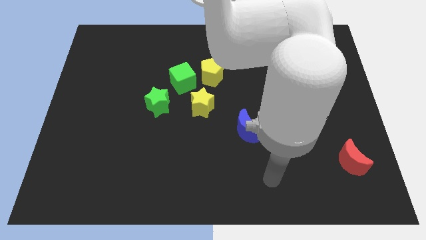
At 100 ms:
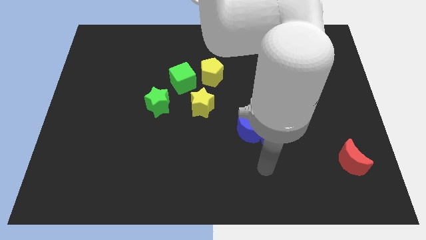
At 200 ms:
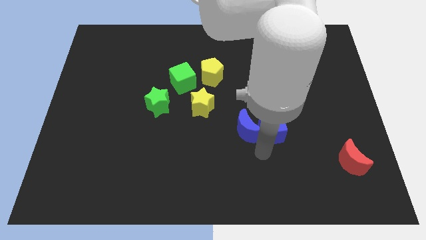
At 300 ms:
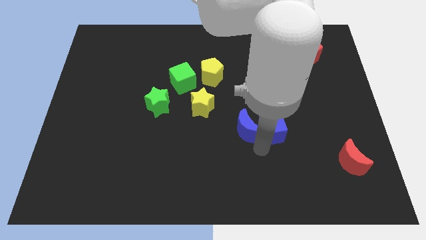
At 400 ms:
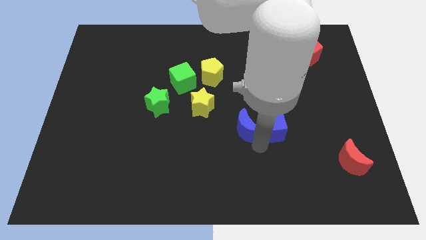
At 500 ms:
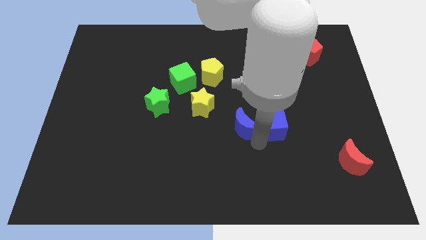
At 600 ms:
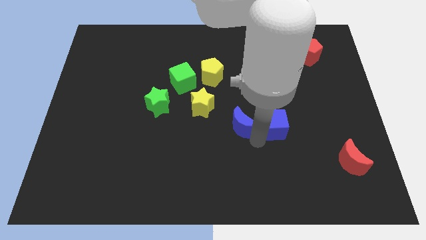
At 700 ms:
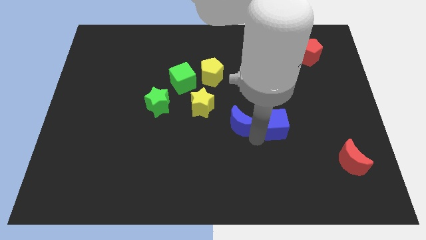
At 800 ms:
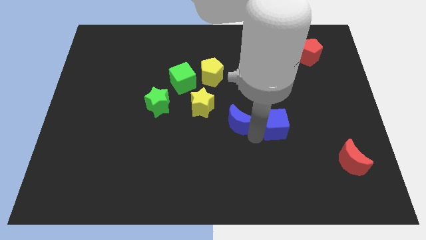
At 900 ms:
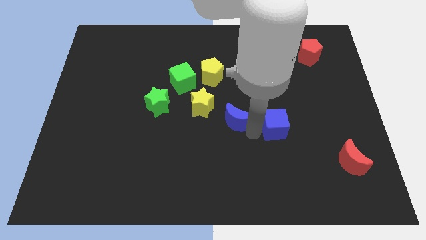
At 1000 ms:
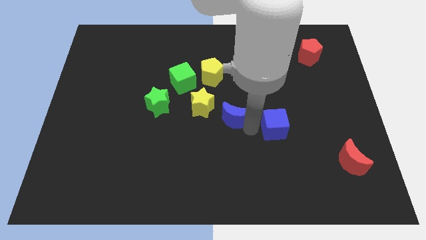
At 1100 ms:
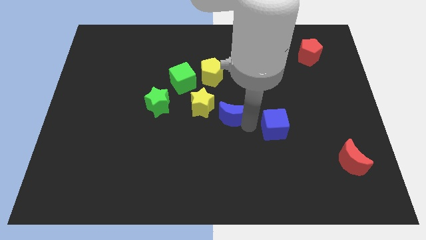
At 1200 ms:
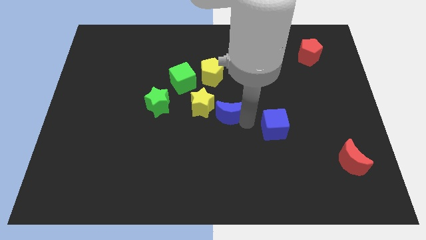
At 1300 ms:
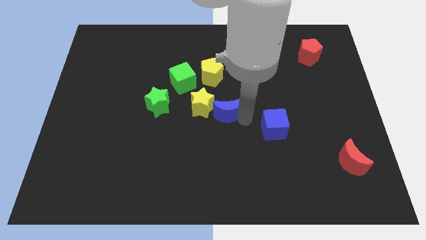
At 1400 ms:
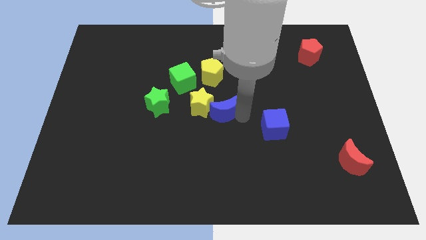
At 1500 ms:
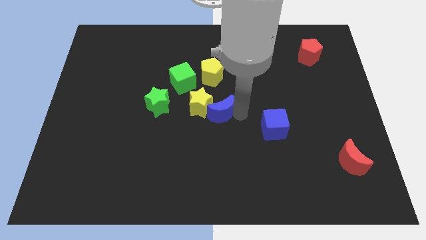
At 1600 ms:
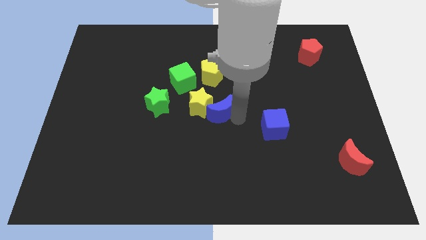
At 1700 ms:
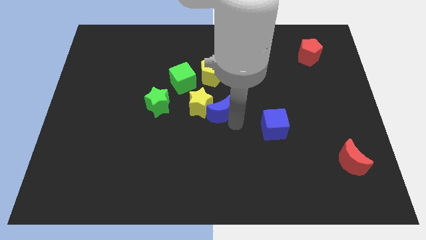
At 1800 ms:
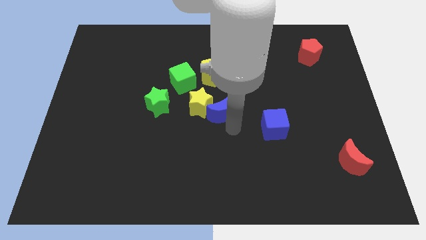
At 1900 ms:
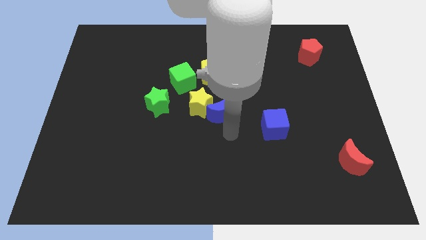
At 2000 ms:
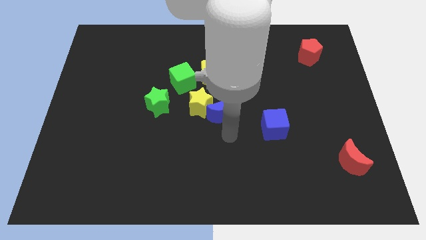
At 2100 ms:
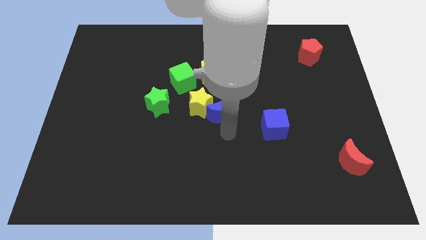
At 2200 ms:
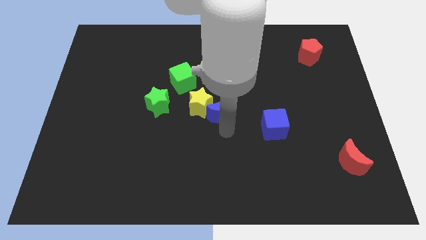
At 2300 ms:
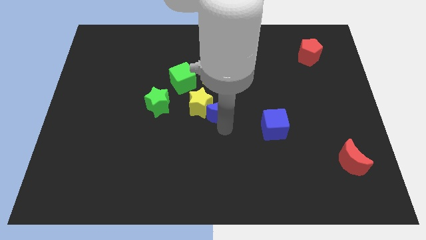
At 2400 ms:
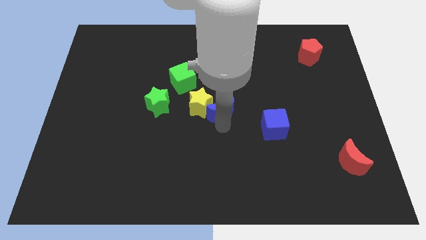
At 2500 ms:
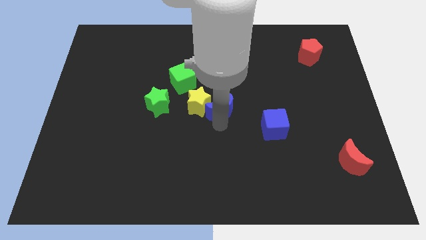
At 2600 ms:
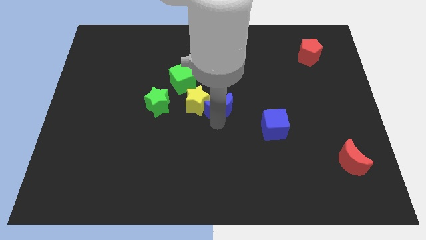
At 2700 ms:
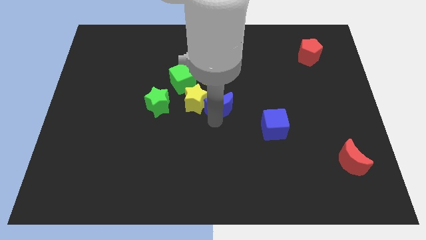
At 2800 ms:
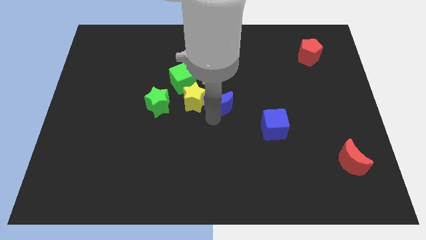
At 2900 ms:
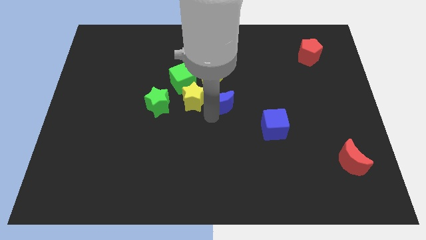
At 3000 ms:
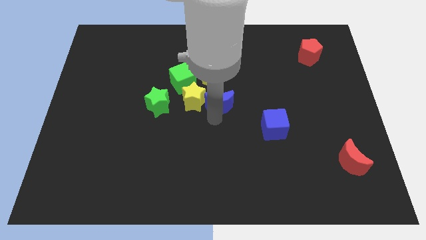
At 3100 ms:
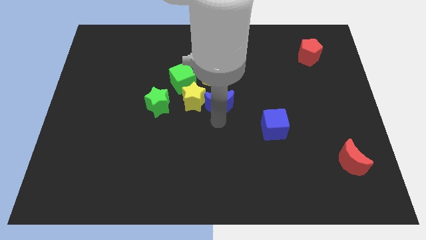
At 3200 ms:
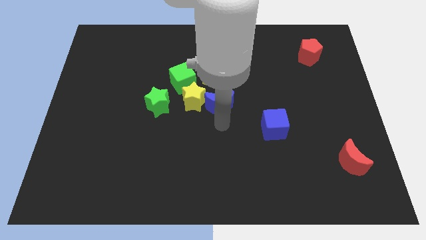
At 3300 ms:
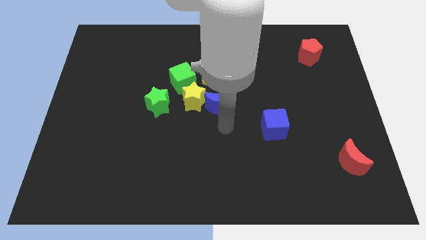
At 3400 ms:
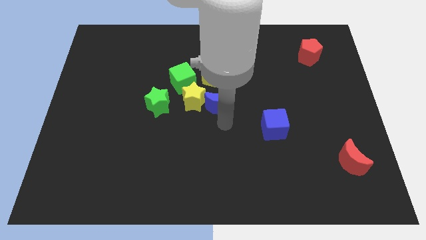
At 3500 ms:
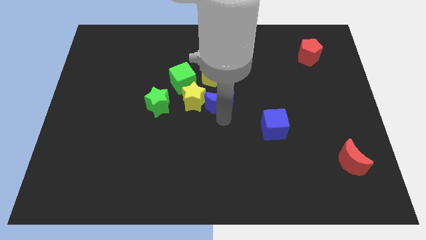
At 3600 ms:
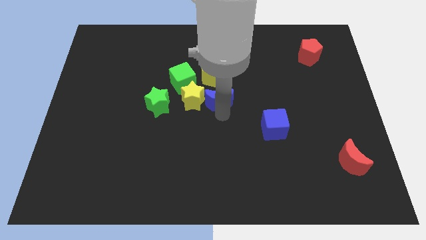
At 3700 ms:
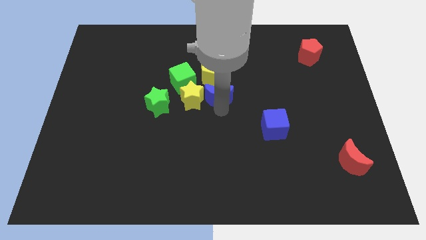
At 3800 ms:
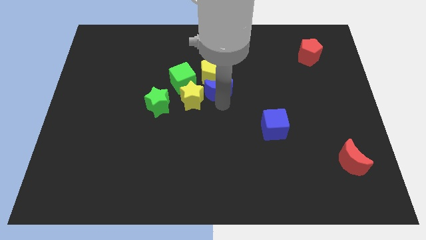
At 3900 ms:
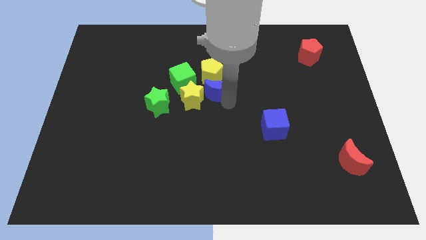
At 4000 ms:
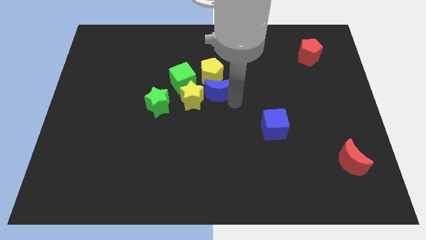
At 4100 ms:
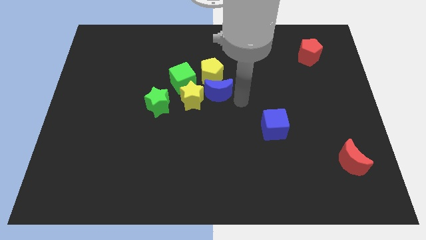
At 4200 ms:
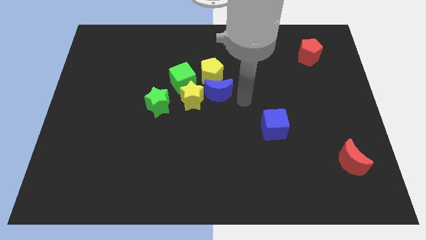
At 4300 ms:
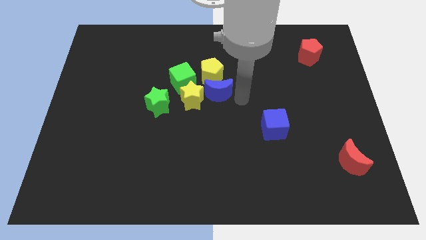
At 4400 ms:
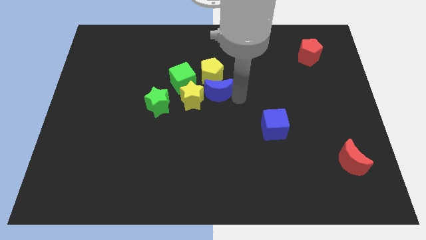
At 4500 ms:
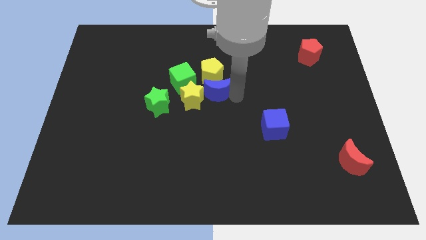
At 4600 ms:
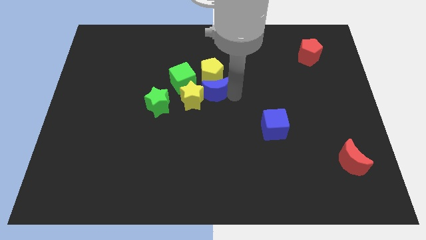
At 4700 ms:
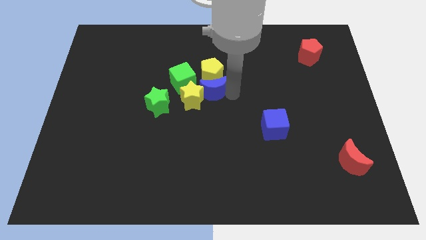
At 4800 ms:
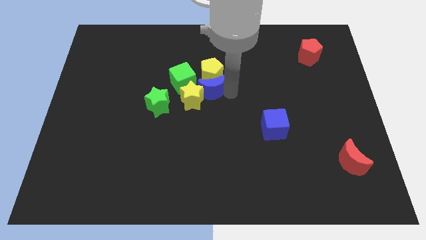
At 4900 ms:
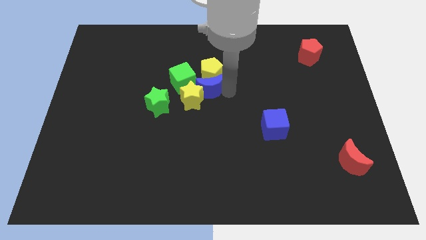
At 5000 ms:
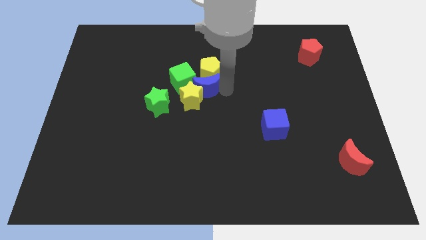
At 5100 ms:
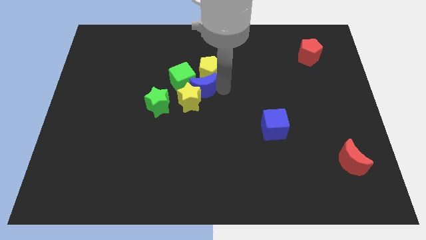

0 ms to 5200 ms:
slide the blue moon to the green cube

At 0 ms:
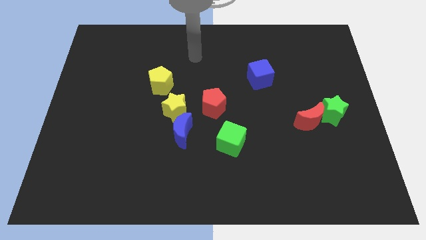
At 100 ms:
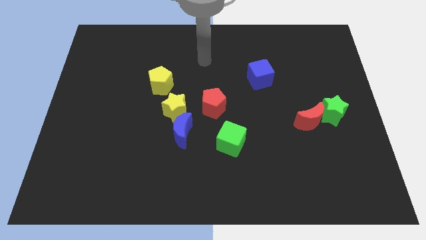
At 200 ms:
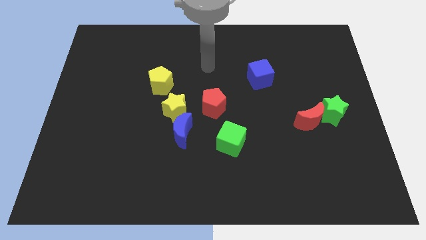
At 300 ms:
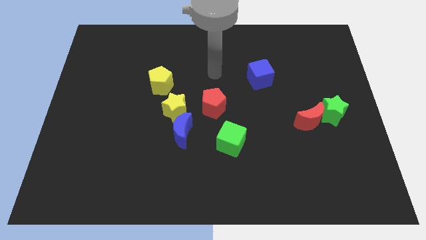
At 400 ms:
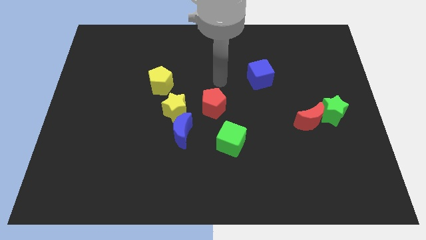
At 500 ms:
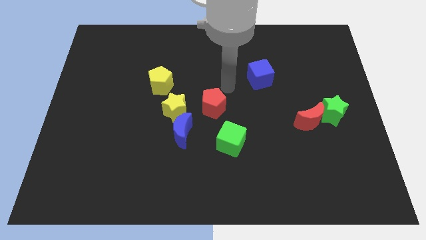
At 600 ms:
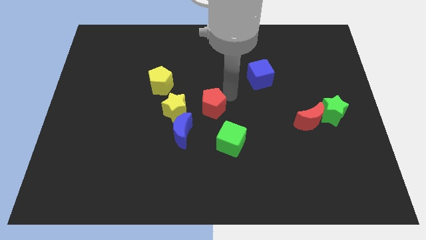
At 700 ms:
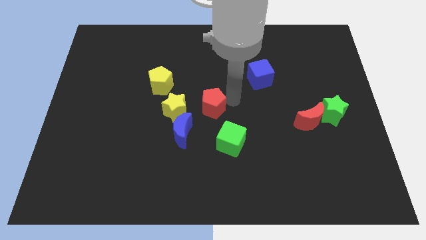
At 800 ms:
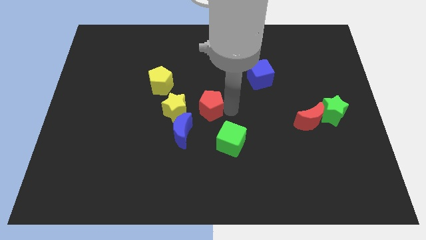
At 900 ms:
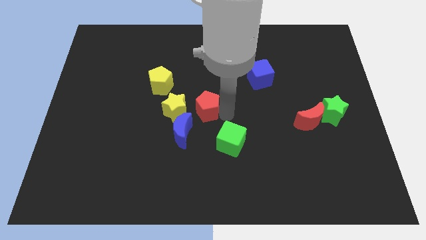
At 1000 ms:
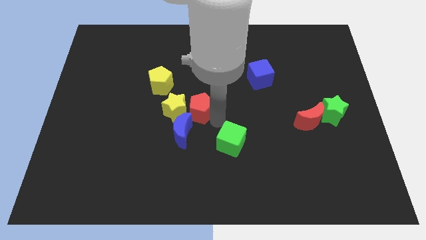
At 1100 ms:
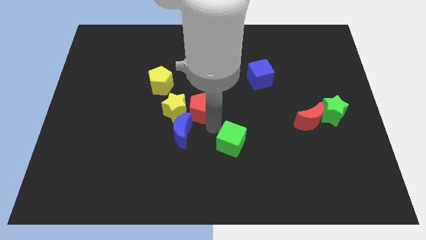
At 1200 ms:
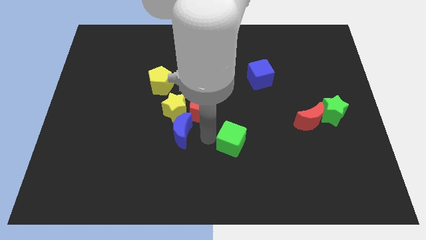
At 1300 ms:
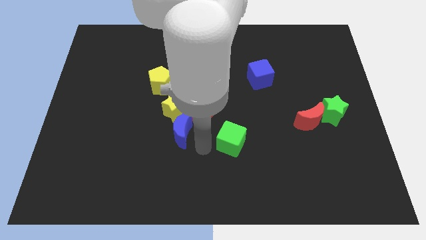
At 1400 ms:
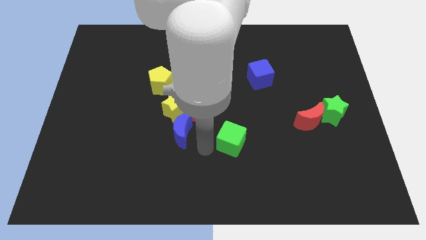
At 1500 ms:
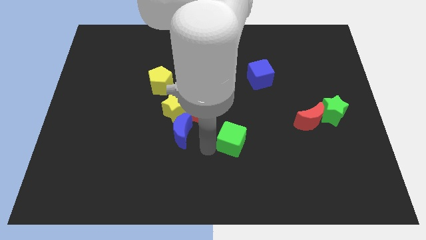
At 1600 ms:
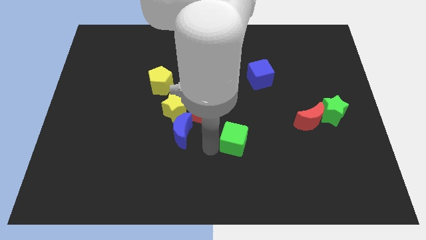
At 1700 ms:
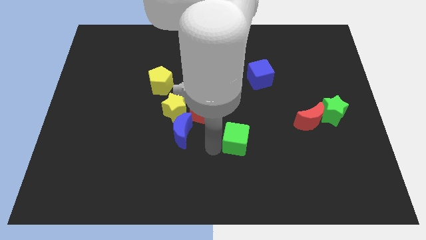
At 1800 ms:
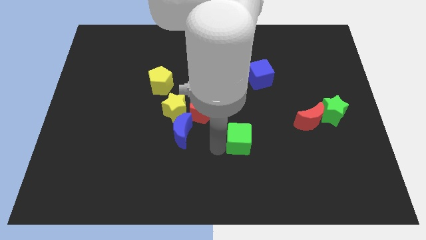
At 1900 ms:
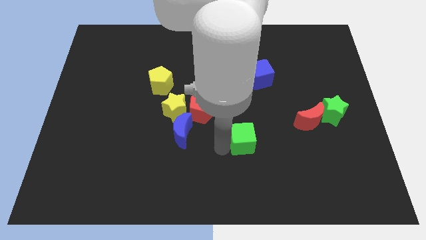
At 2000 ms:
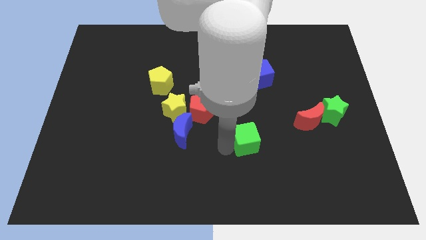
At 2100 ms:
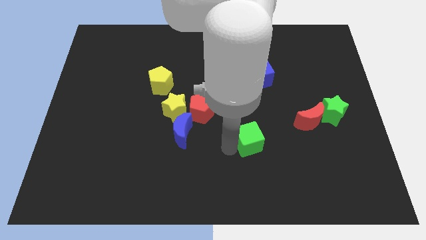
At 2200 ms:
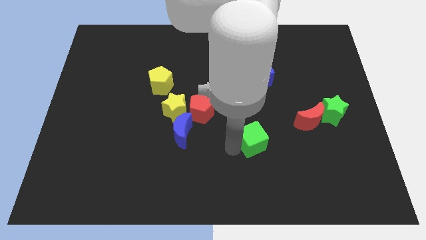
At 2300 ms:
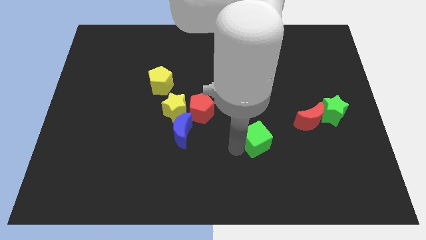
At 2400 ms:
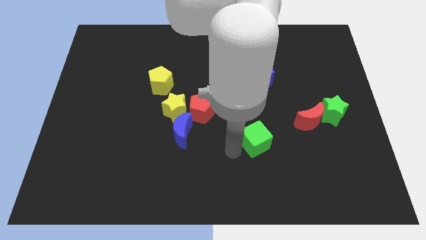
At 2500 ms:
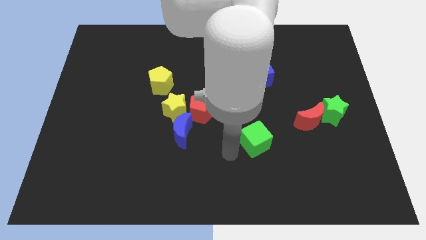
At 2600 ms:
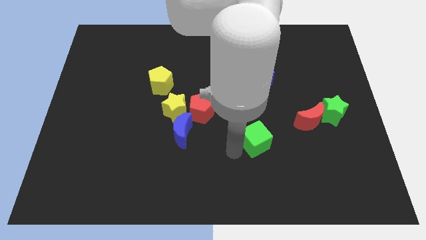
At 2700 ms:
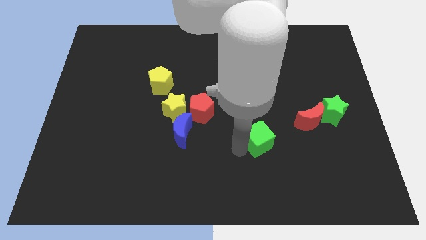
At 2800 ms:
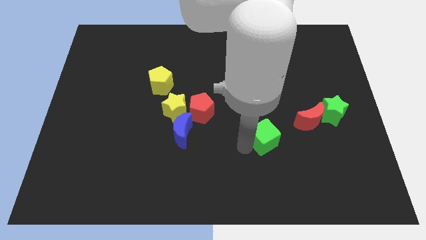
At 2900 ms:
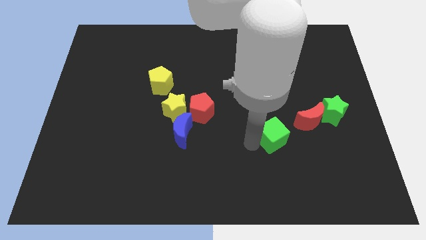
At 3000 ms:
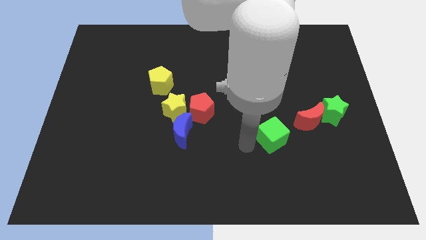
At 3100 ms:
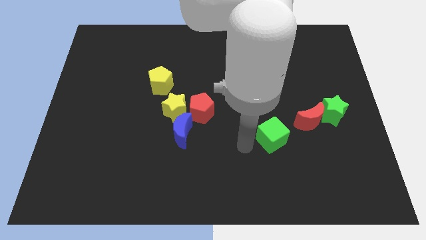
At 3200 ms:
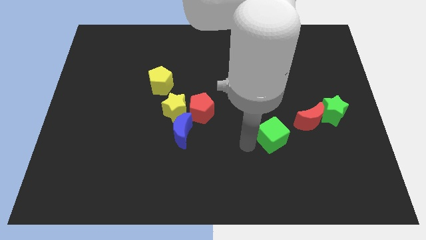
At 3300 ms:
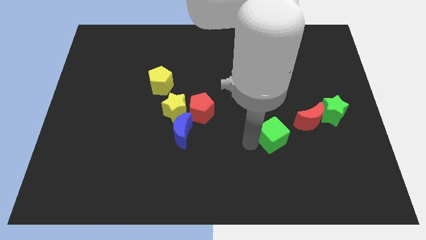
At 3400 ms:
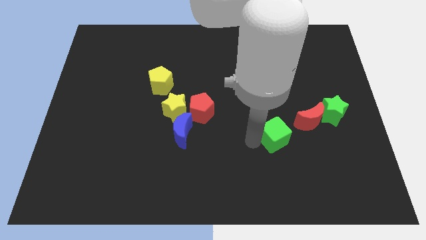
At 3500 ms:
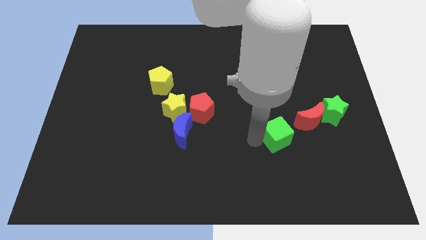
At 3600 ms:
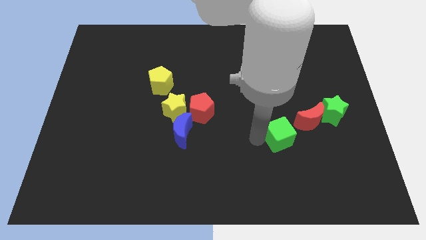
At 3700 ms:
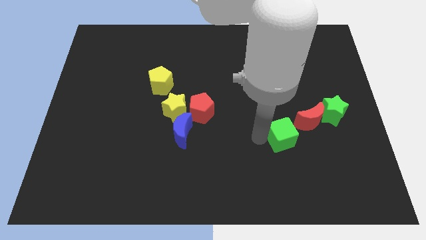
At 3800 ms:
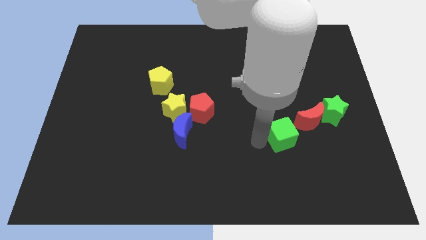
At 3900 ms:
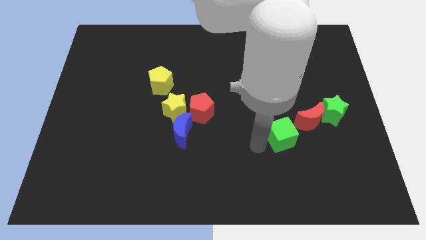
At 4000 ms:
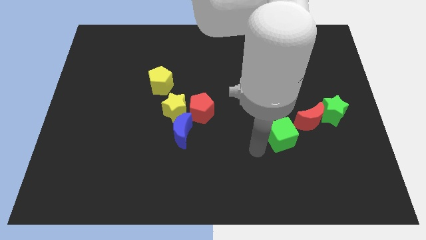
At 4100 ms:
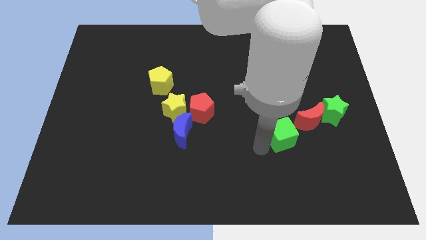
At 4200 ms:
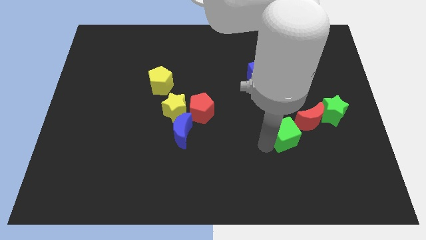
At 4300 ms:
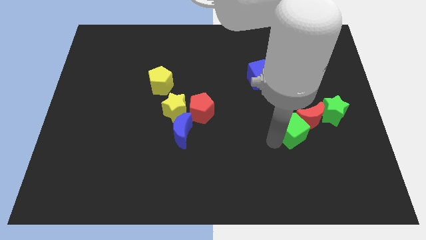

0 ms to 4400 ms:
move the green cube to the red moon
